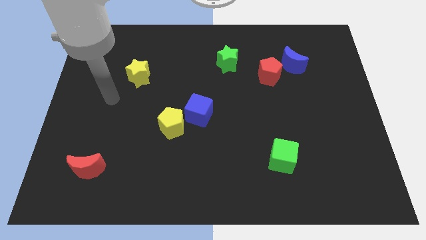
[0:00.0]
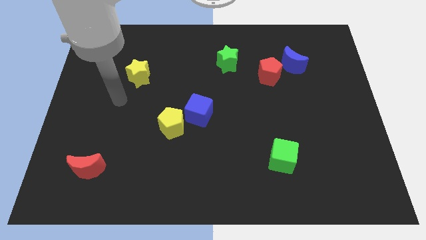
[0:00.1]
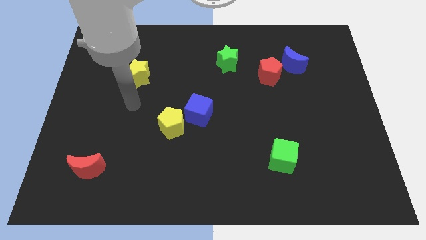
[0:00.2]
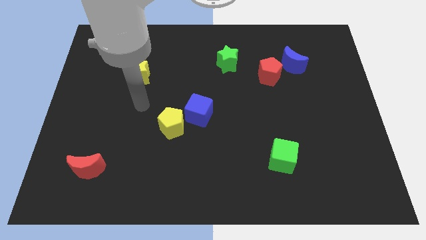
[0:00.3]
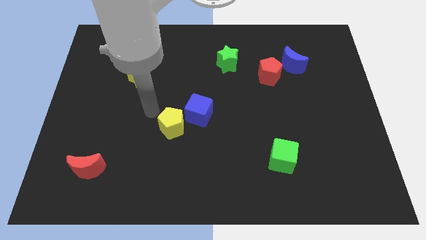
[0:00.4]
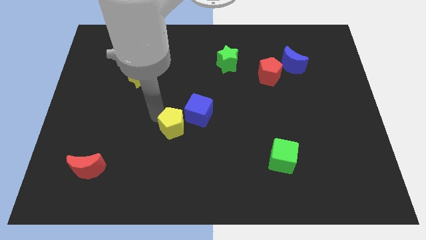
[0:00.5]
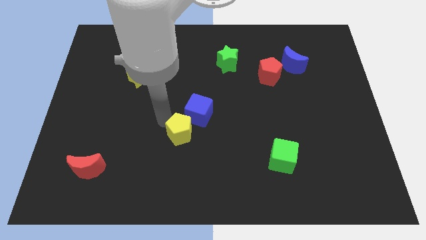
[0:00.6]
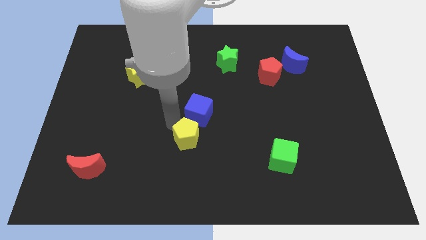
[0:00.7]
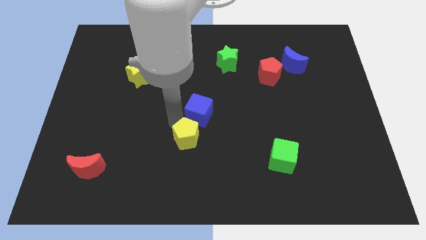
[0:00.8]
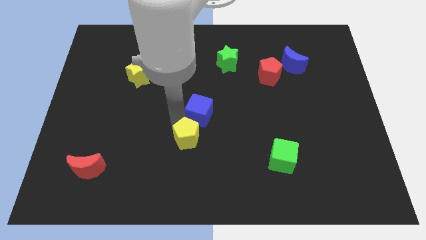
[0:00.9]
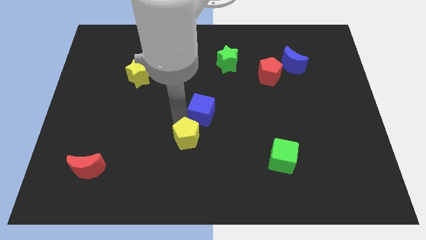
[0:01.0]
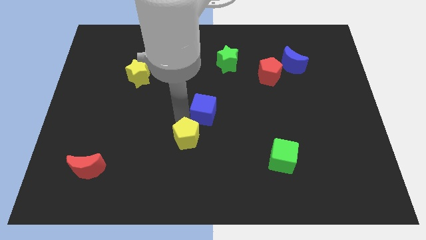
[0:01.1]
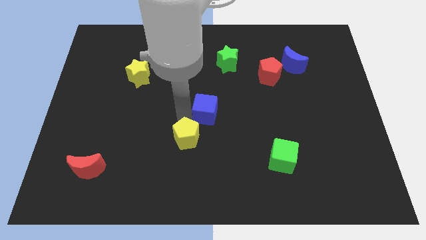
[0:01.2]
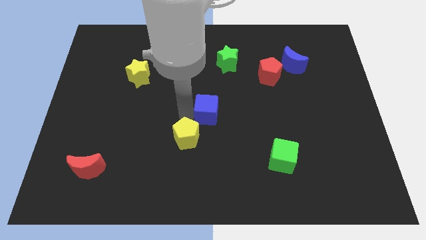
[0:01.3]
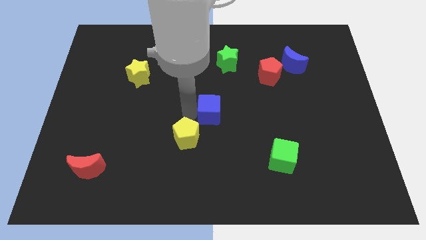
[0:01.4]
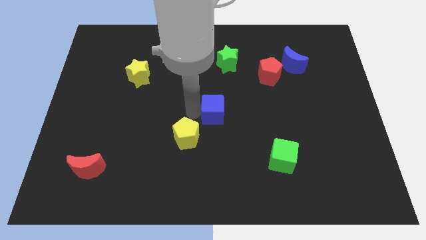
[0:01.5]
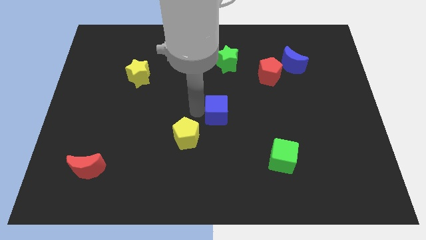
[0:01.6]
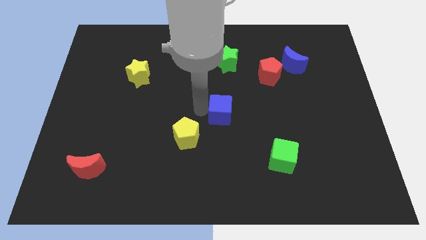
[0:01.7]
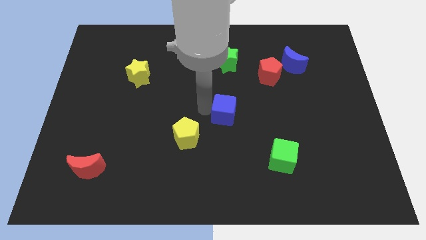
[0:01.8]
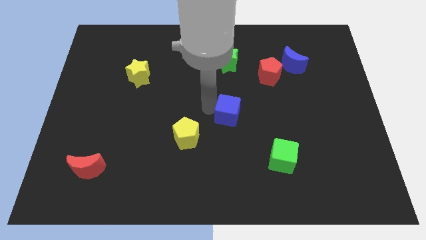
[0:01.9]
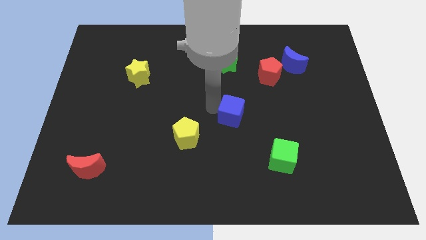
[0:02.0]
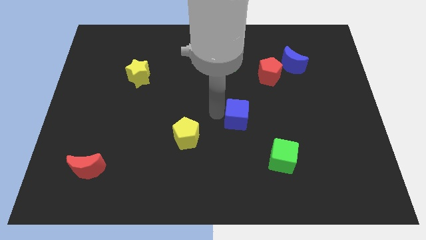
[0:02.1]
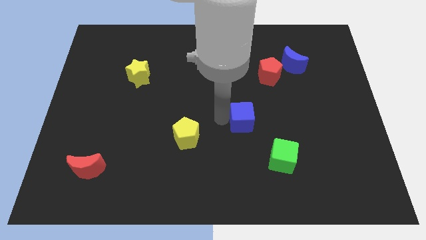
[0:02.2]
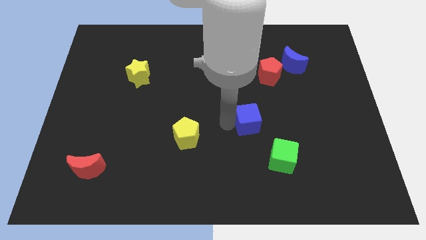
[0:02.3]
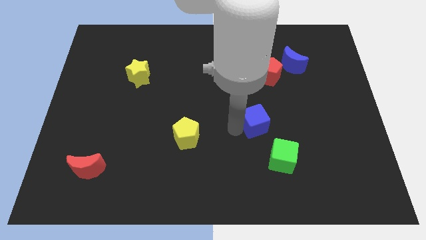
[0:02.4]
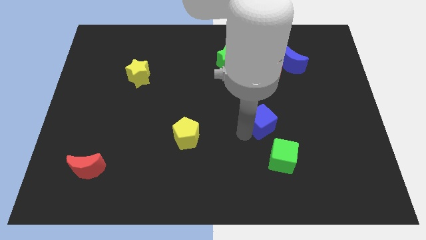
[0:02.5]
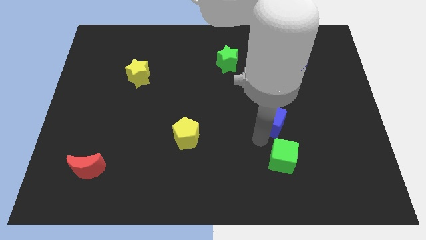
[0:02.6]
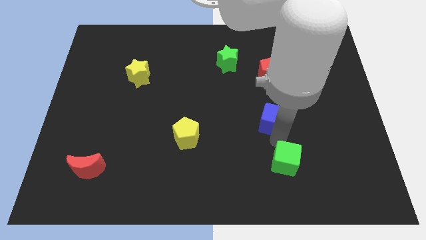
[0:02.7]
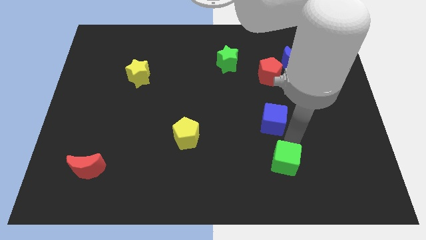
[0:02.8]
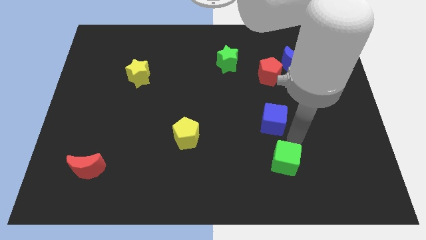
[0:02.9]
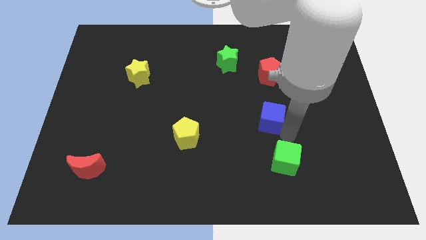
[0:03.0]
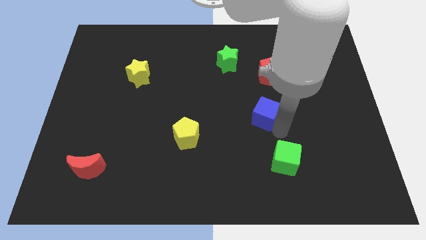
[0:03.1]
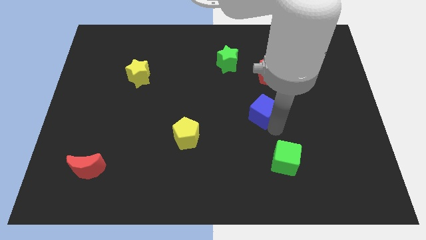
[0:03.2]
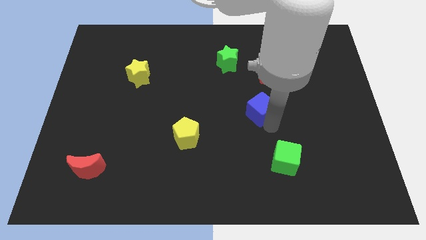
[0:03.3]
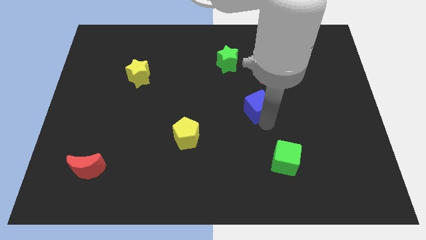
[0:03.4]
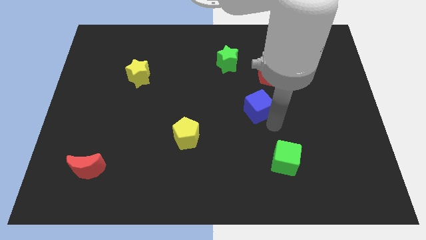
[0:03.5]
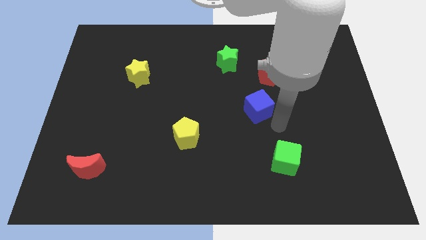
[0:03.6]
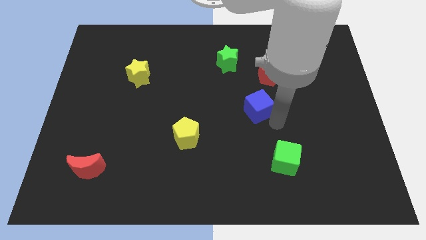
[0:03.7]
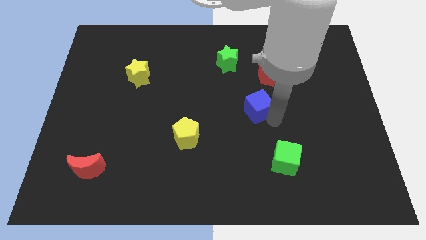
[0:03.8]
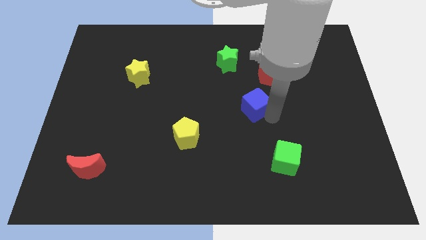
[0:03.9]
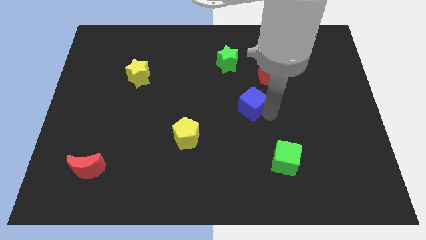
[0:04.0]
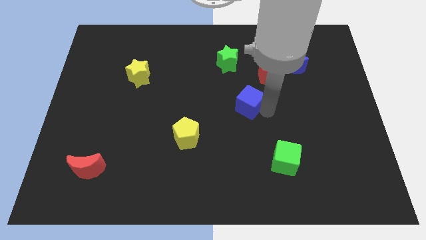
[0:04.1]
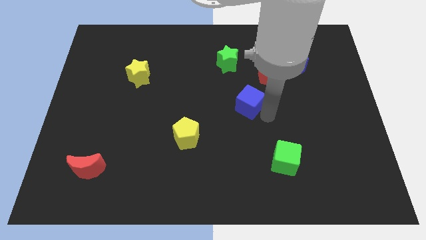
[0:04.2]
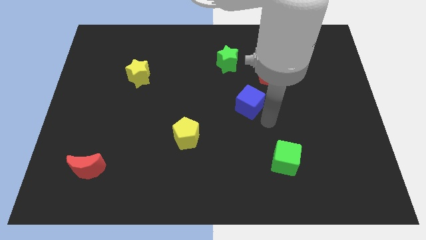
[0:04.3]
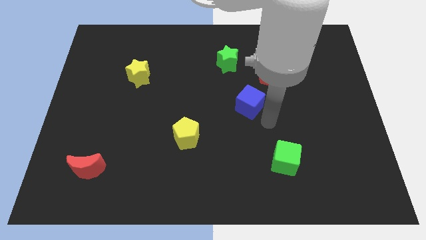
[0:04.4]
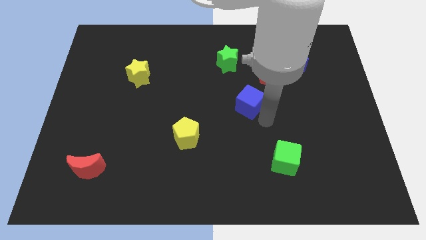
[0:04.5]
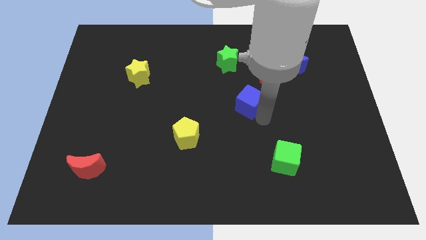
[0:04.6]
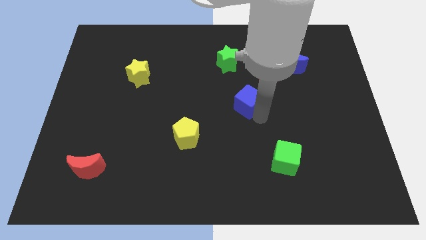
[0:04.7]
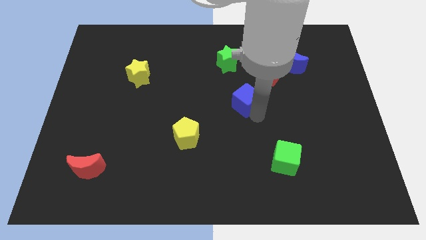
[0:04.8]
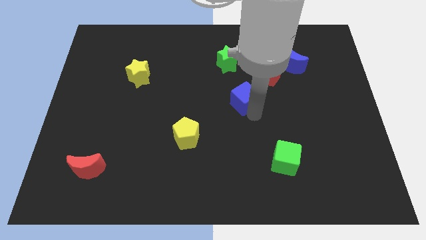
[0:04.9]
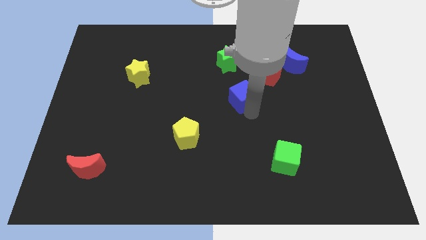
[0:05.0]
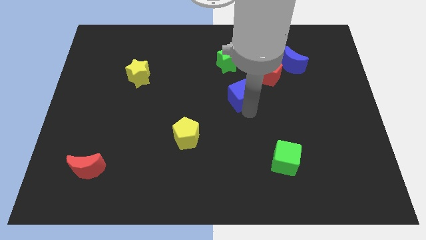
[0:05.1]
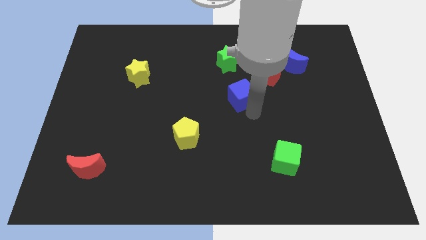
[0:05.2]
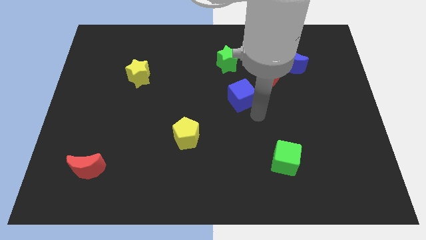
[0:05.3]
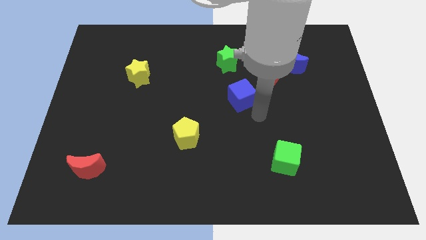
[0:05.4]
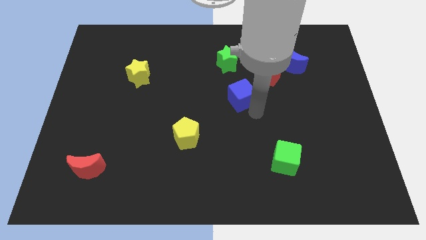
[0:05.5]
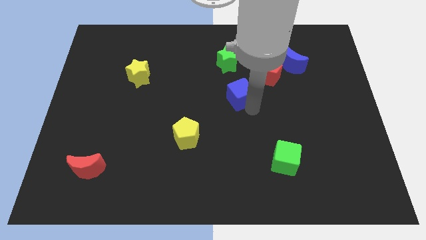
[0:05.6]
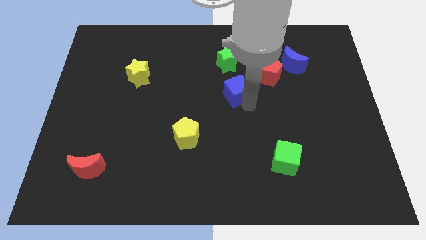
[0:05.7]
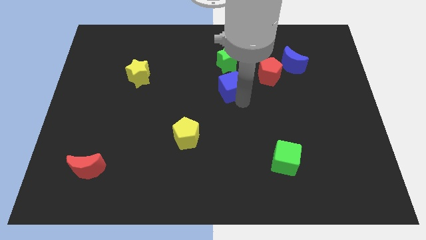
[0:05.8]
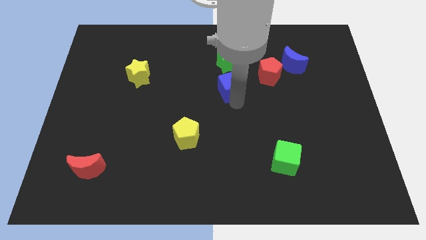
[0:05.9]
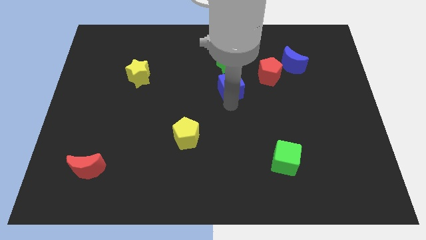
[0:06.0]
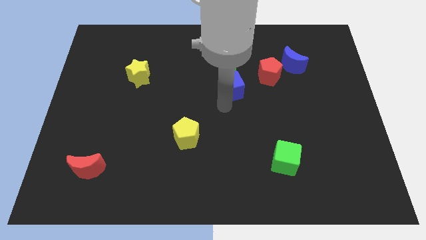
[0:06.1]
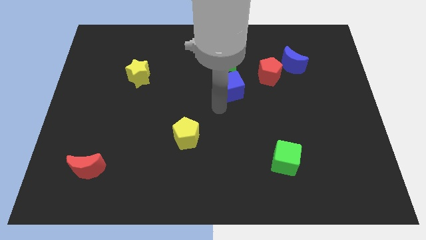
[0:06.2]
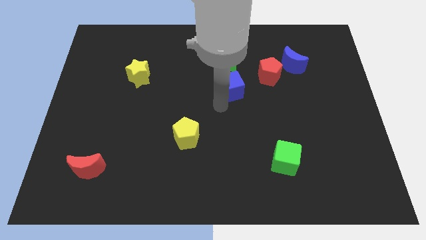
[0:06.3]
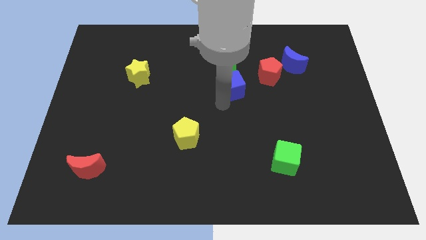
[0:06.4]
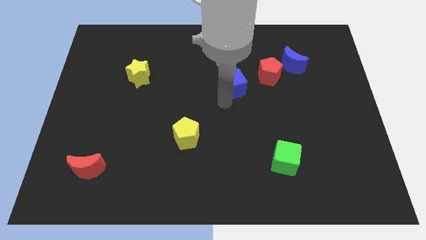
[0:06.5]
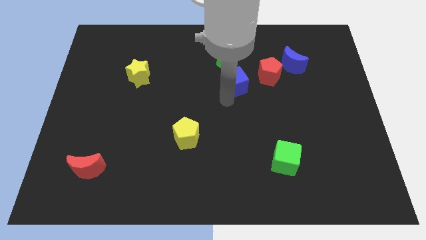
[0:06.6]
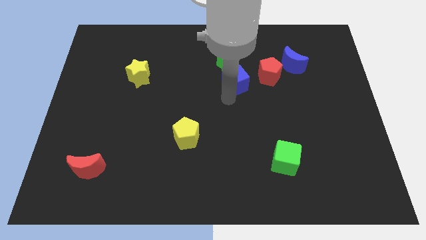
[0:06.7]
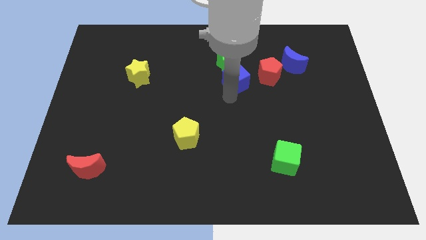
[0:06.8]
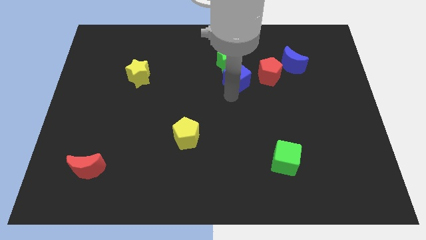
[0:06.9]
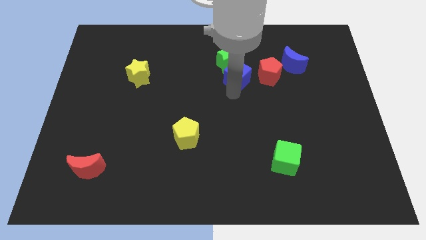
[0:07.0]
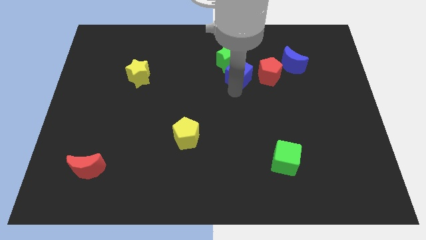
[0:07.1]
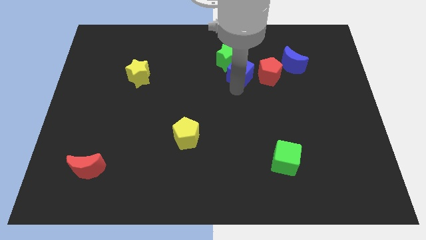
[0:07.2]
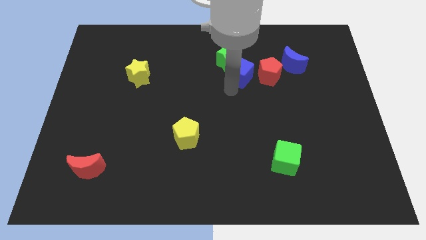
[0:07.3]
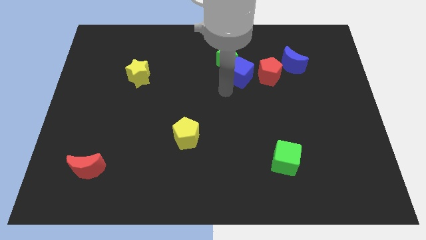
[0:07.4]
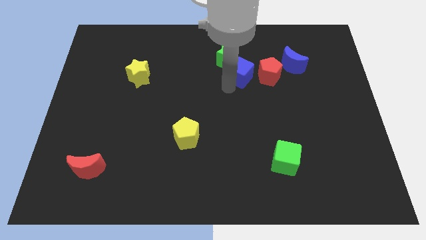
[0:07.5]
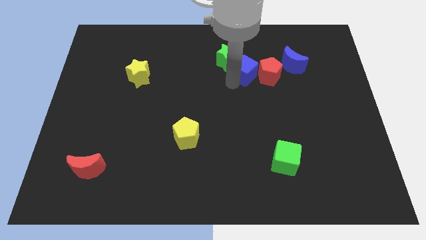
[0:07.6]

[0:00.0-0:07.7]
push the blue cube to the right of the green star
